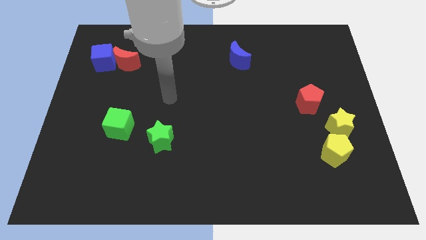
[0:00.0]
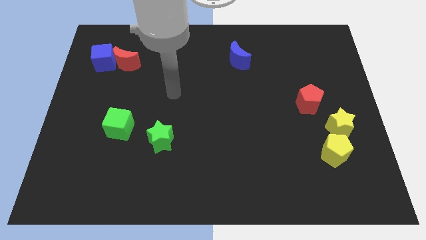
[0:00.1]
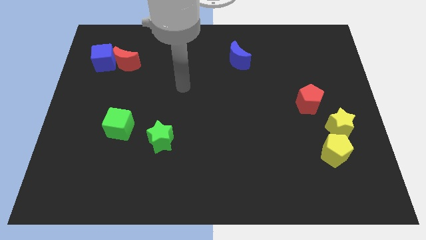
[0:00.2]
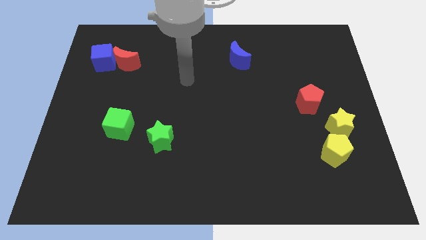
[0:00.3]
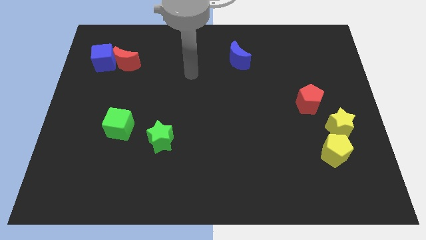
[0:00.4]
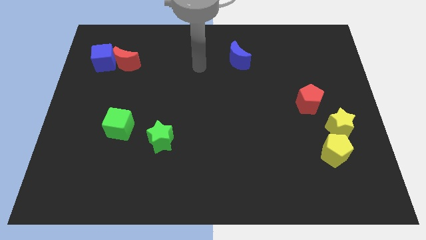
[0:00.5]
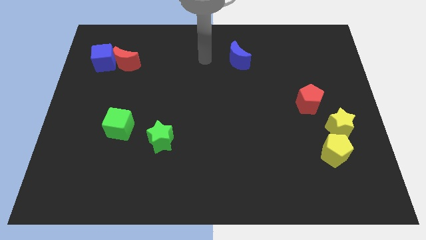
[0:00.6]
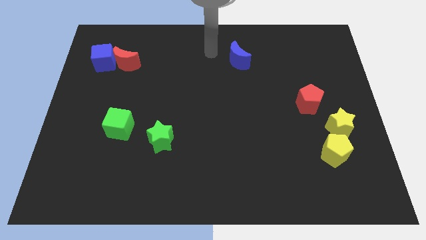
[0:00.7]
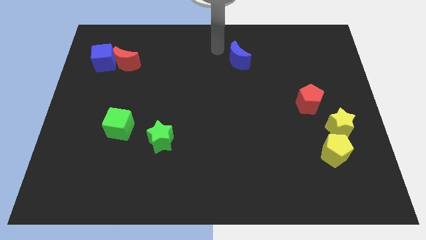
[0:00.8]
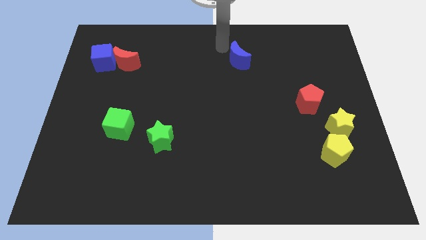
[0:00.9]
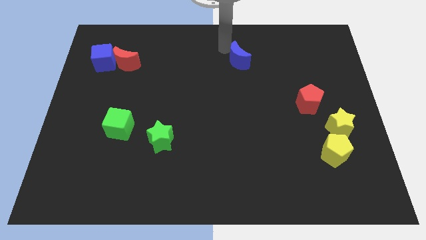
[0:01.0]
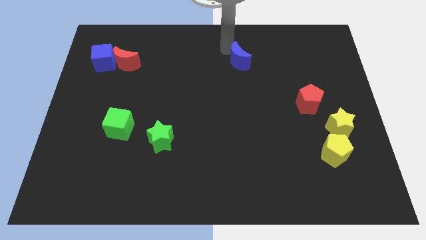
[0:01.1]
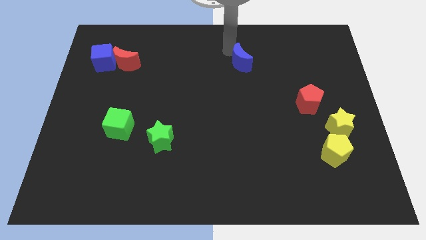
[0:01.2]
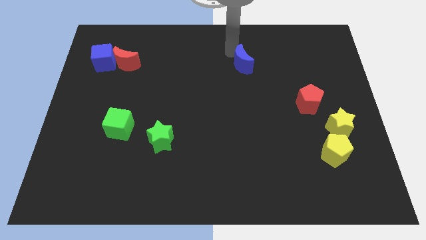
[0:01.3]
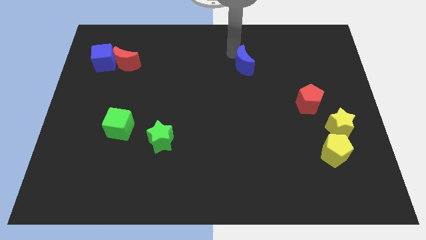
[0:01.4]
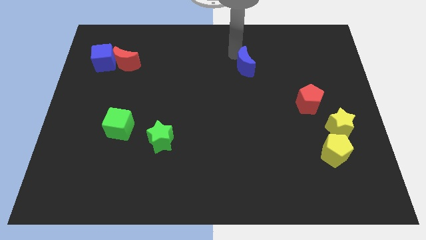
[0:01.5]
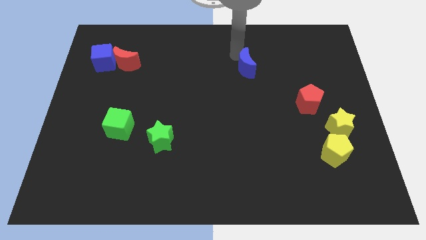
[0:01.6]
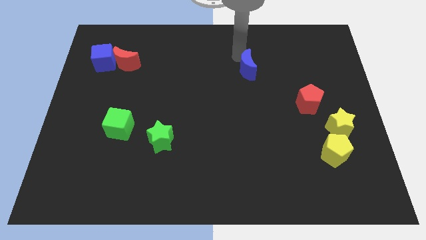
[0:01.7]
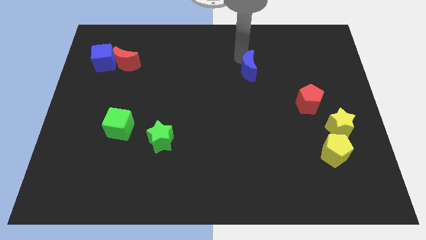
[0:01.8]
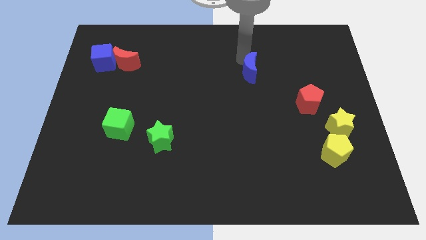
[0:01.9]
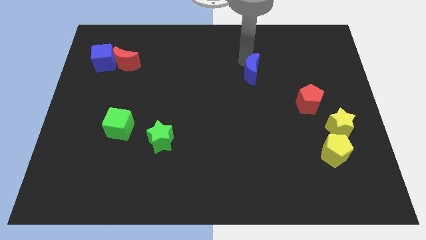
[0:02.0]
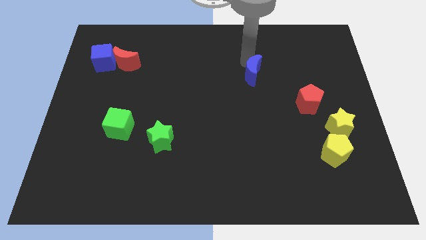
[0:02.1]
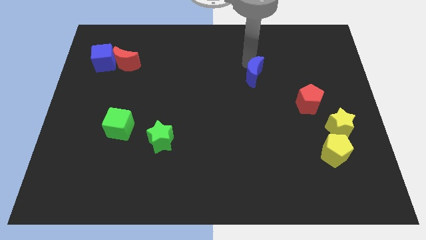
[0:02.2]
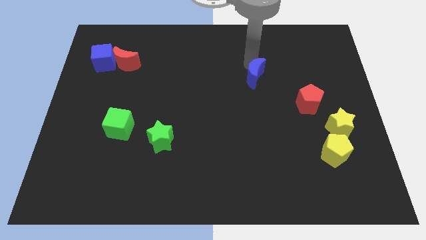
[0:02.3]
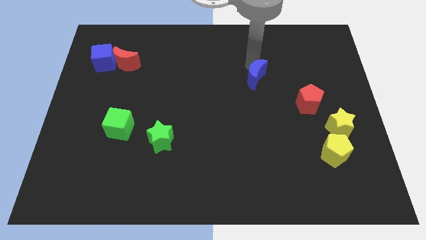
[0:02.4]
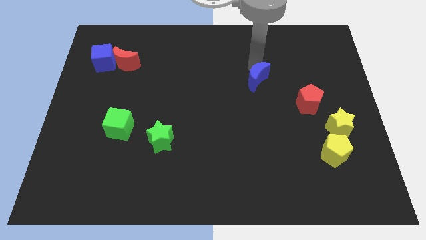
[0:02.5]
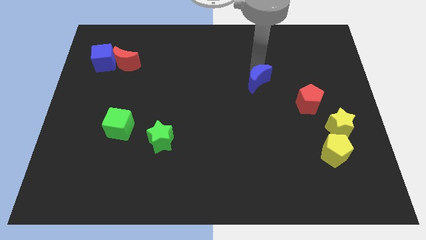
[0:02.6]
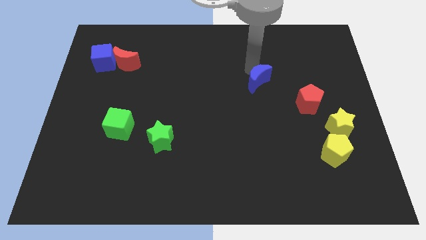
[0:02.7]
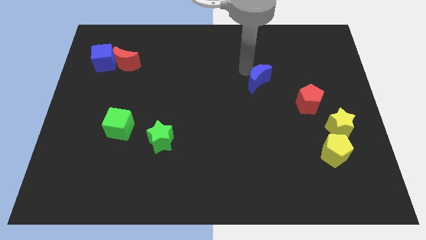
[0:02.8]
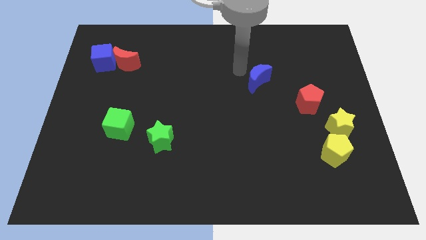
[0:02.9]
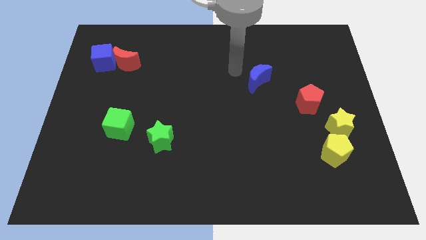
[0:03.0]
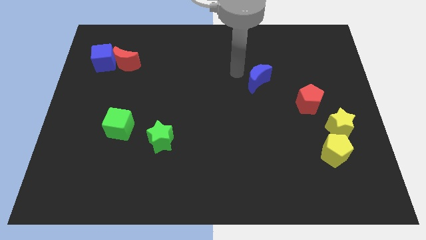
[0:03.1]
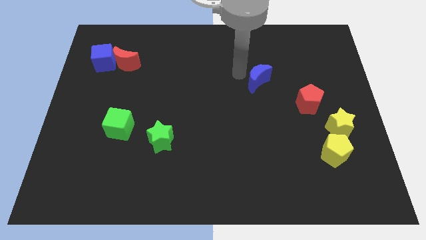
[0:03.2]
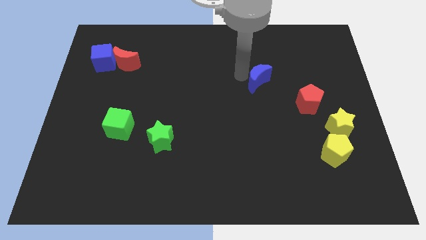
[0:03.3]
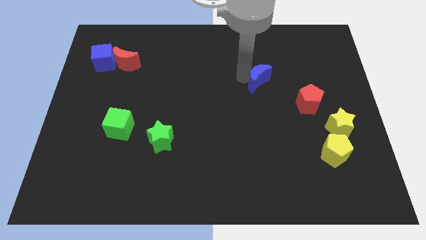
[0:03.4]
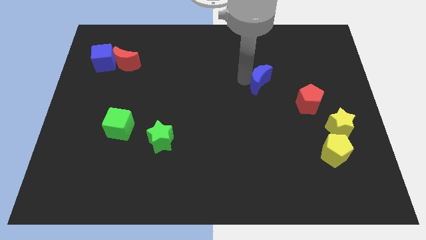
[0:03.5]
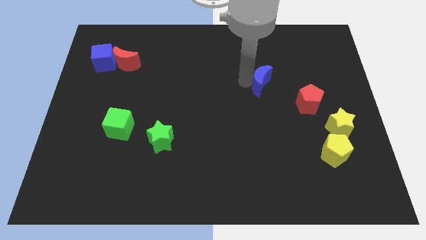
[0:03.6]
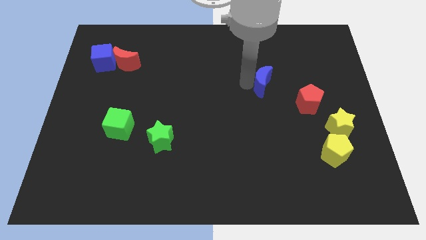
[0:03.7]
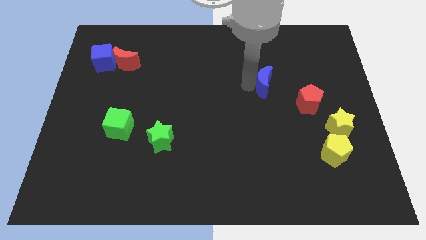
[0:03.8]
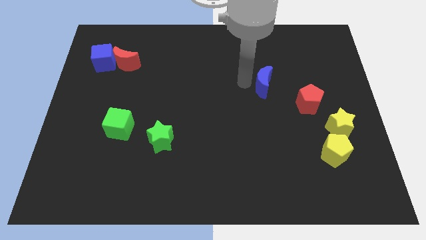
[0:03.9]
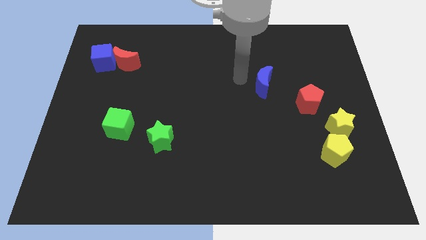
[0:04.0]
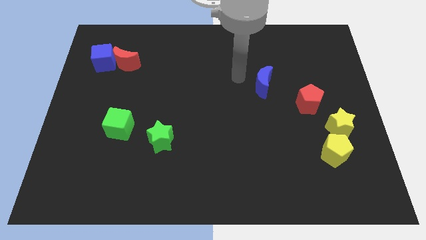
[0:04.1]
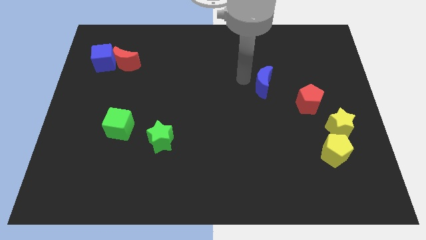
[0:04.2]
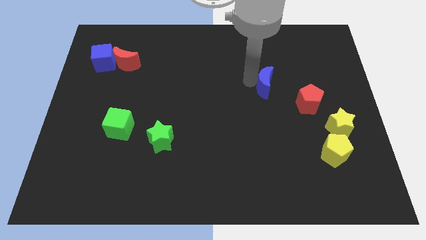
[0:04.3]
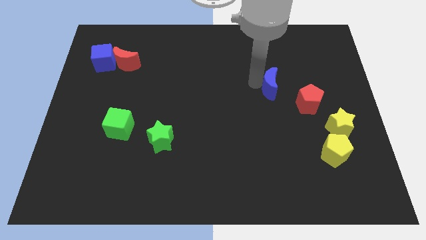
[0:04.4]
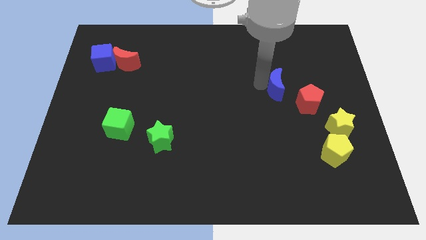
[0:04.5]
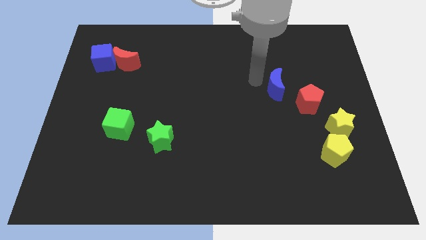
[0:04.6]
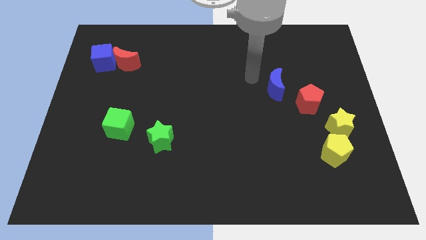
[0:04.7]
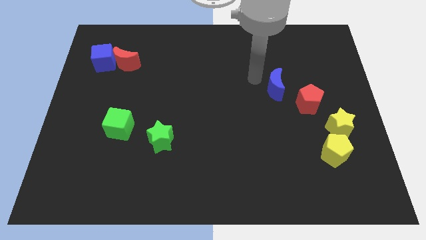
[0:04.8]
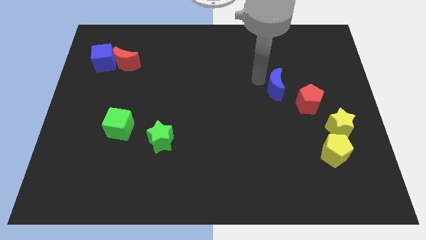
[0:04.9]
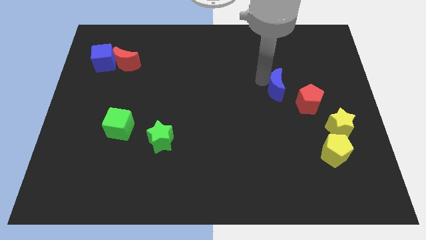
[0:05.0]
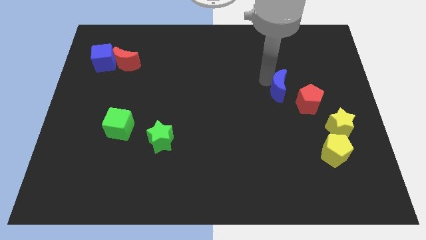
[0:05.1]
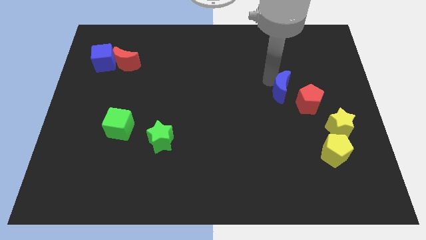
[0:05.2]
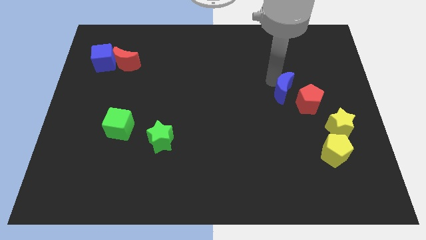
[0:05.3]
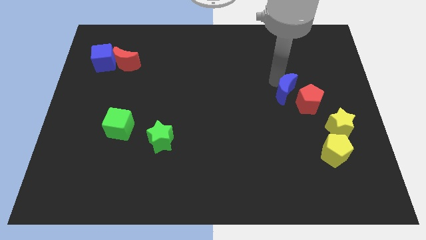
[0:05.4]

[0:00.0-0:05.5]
move the blue moon towards the red pentagon

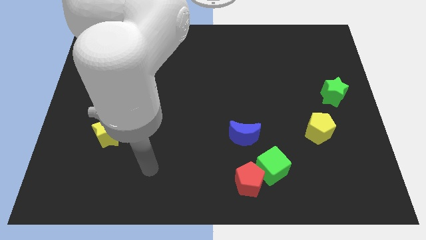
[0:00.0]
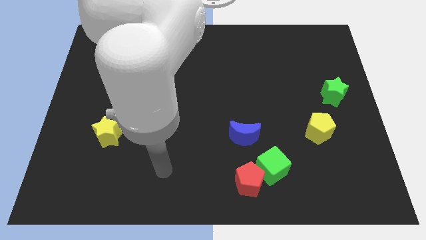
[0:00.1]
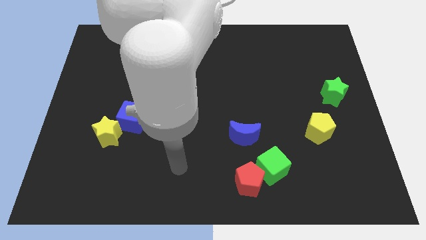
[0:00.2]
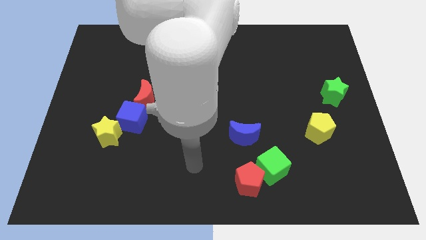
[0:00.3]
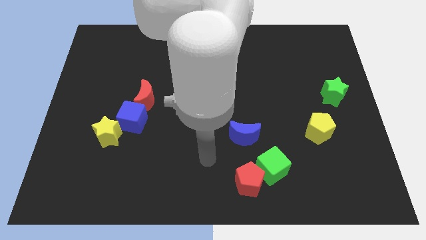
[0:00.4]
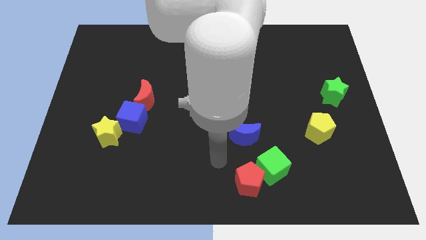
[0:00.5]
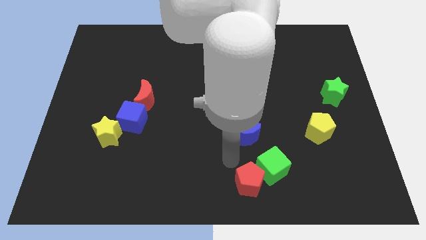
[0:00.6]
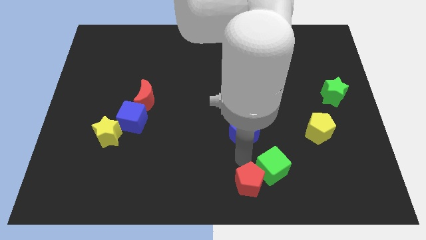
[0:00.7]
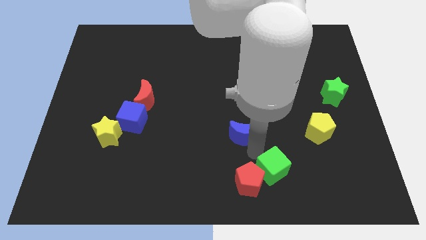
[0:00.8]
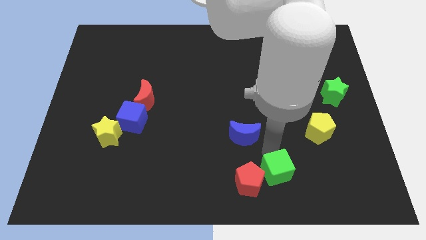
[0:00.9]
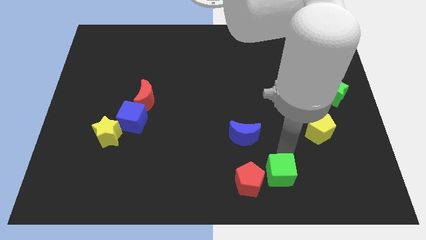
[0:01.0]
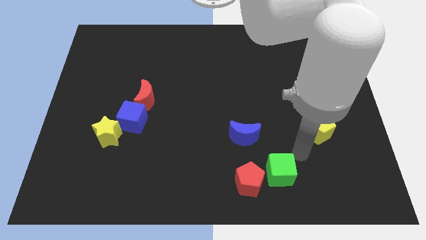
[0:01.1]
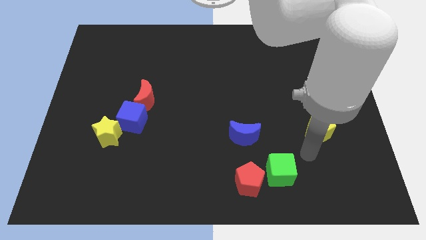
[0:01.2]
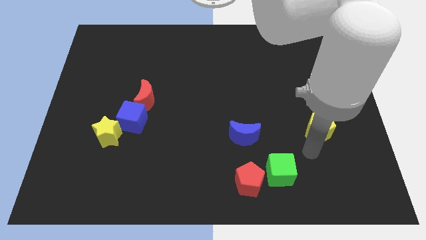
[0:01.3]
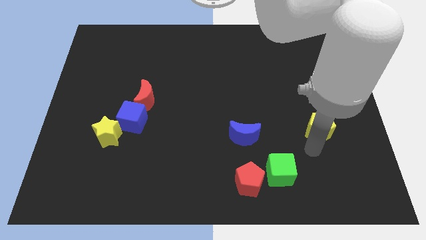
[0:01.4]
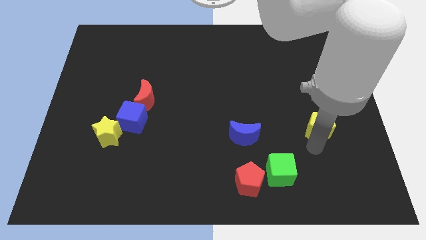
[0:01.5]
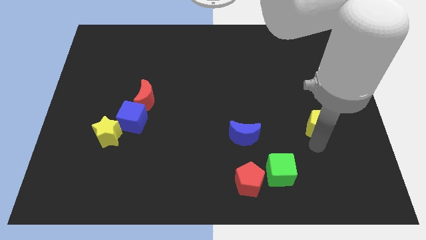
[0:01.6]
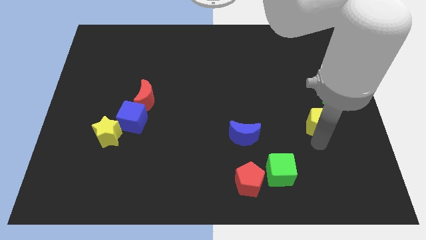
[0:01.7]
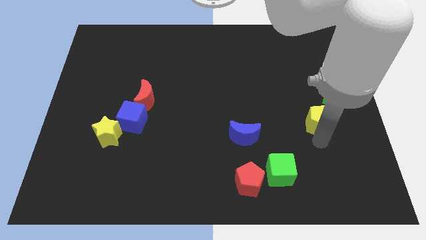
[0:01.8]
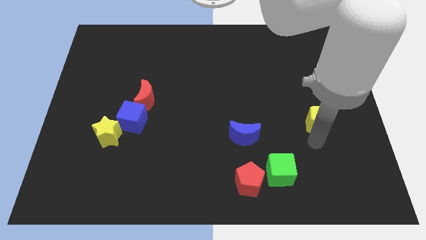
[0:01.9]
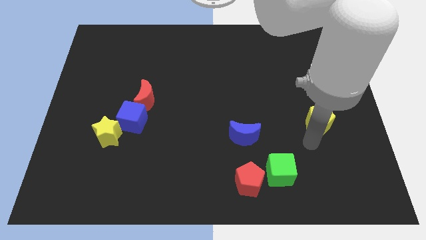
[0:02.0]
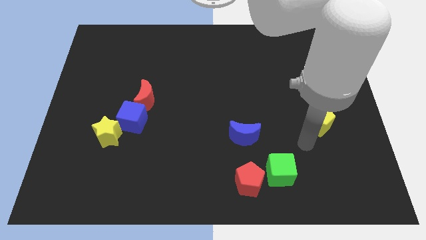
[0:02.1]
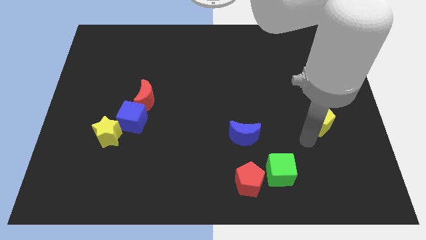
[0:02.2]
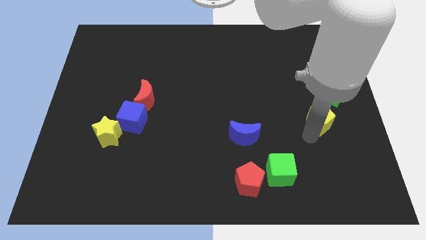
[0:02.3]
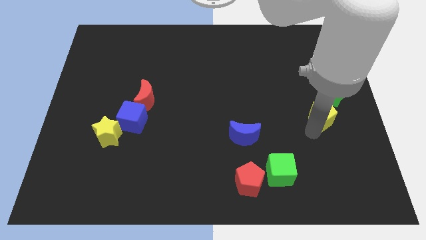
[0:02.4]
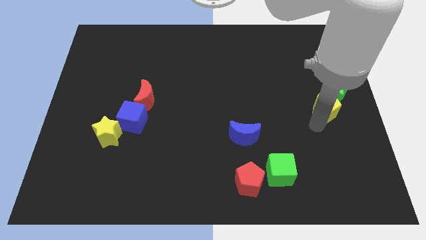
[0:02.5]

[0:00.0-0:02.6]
slide the yellow pentagon close to the green star
